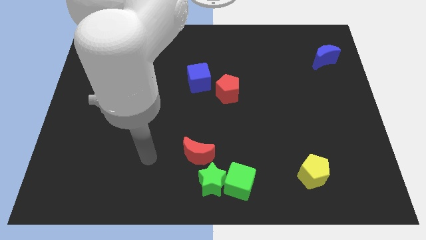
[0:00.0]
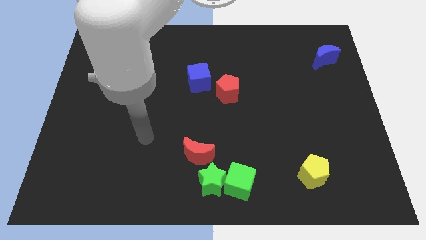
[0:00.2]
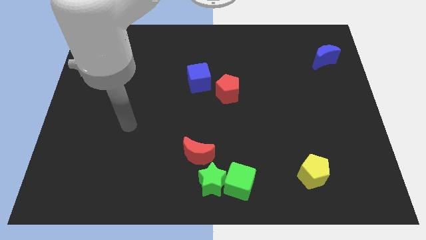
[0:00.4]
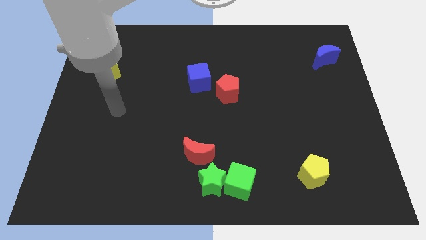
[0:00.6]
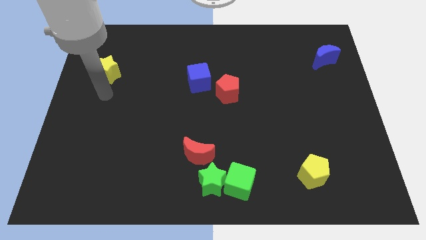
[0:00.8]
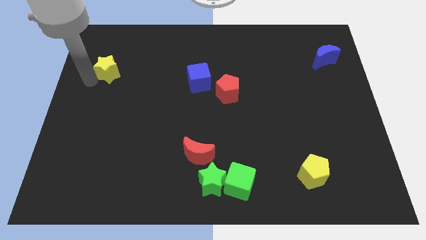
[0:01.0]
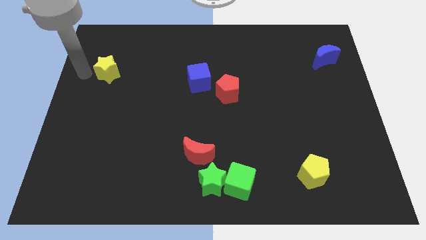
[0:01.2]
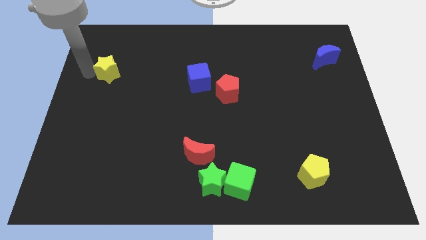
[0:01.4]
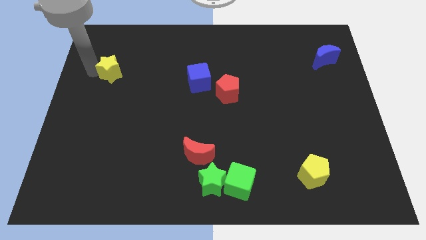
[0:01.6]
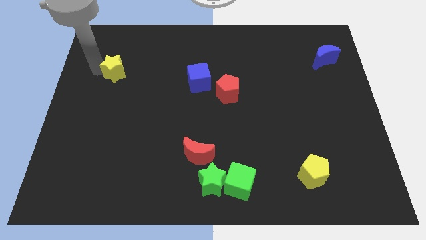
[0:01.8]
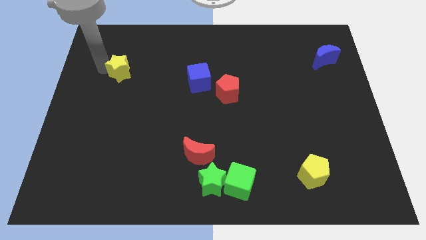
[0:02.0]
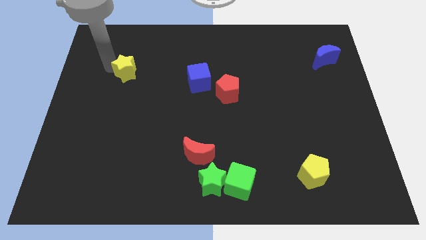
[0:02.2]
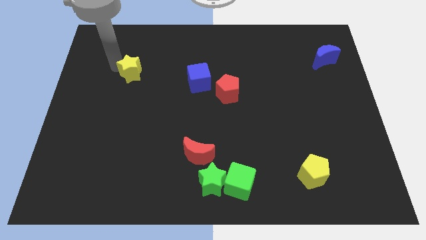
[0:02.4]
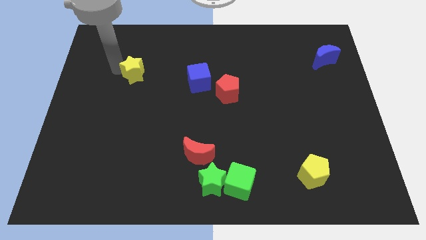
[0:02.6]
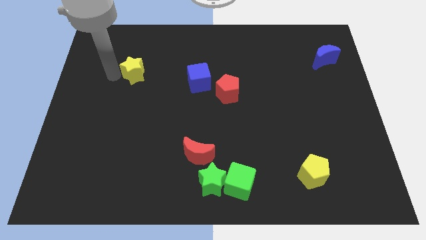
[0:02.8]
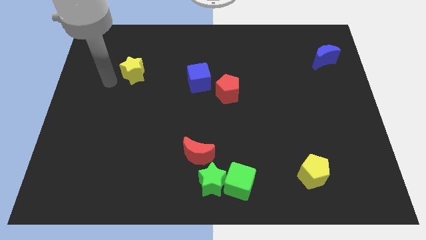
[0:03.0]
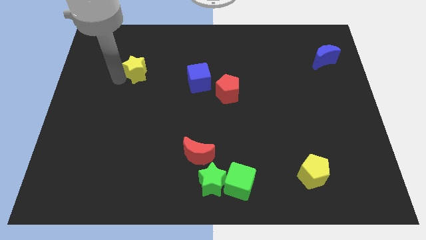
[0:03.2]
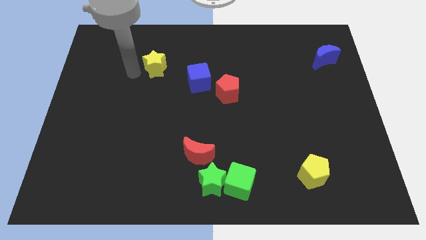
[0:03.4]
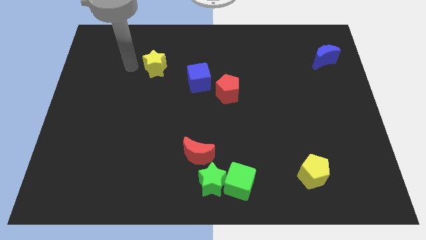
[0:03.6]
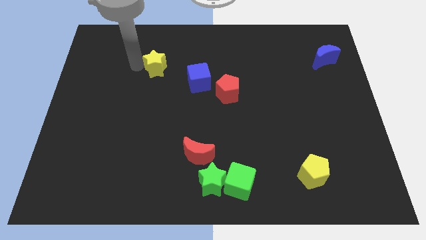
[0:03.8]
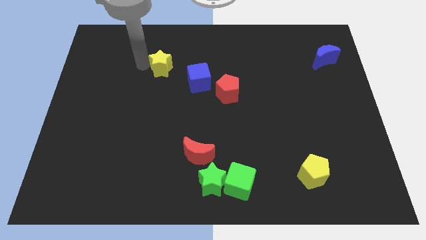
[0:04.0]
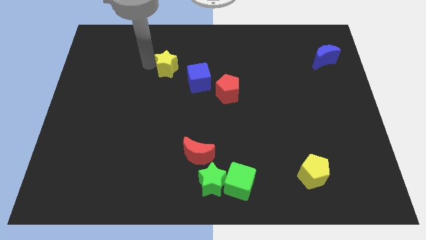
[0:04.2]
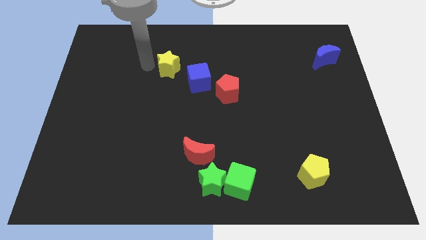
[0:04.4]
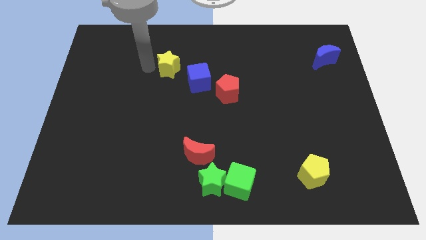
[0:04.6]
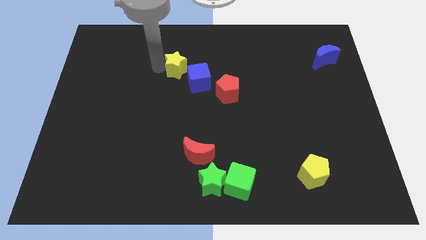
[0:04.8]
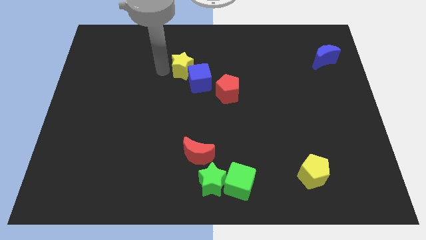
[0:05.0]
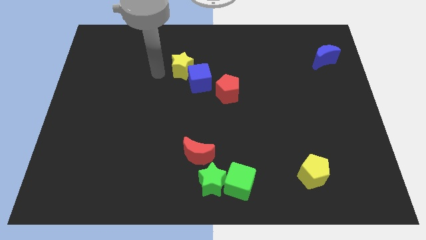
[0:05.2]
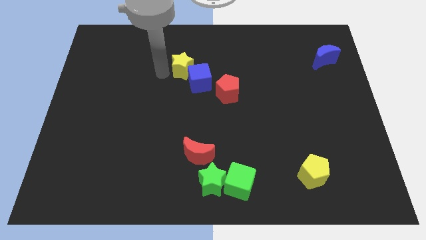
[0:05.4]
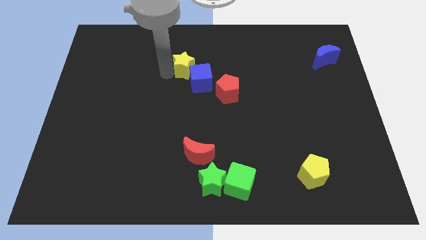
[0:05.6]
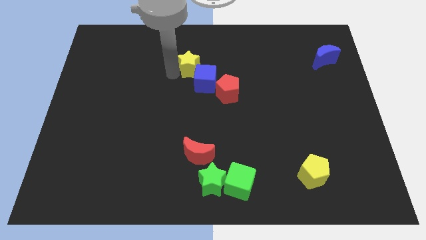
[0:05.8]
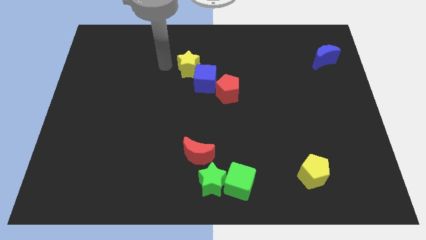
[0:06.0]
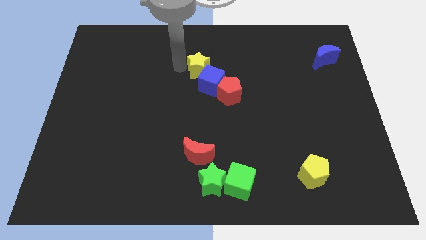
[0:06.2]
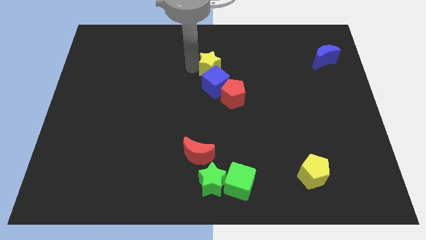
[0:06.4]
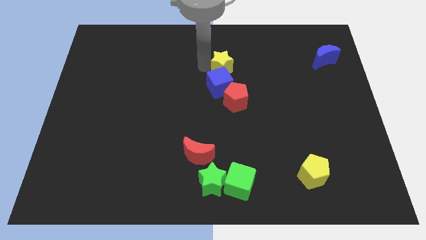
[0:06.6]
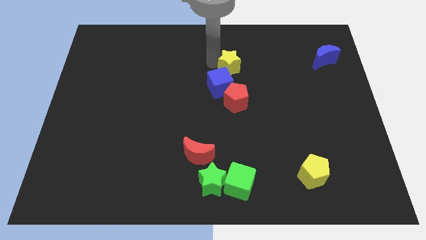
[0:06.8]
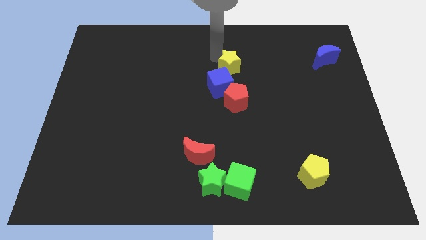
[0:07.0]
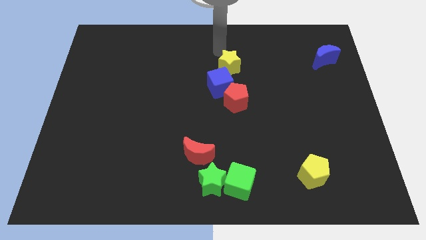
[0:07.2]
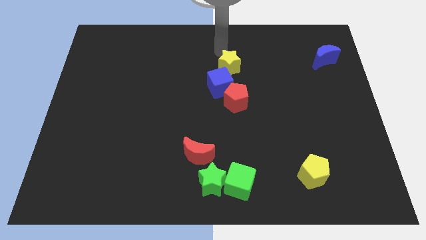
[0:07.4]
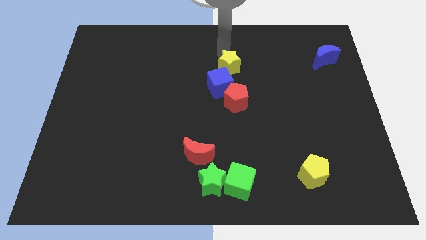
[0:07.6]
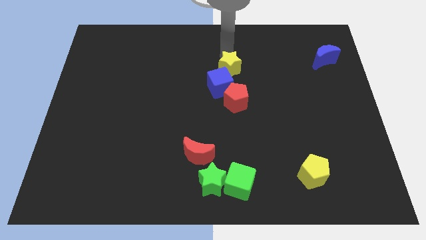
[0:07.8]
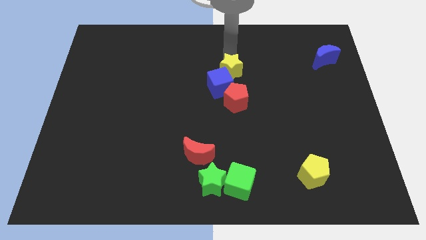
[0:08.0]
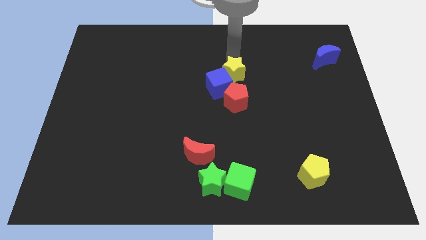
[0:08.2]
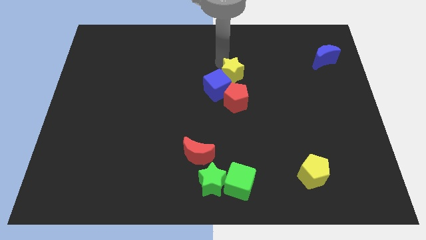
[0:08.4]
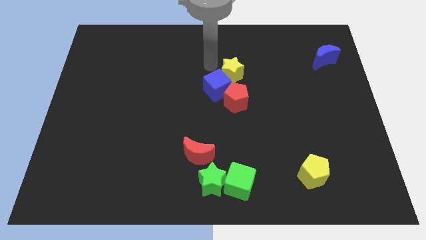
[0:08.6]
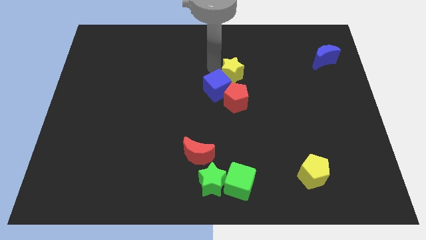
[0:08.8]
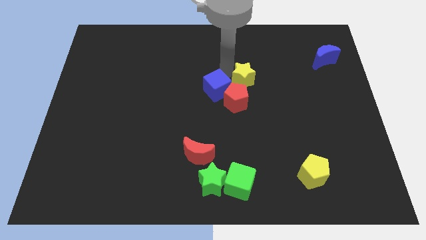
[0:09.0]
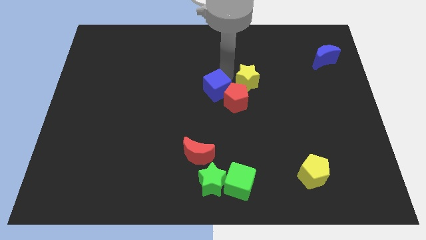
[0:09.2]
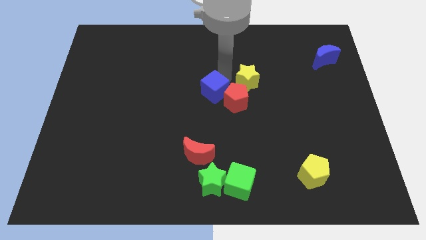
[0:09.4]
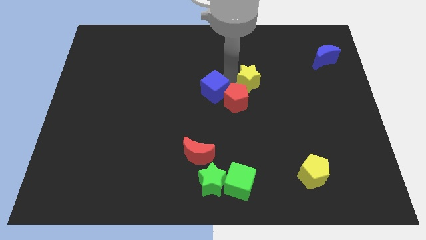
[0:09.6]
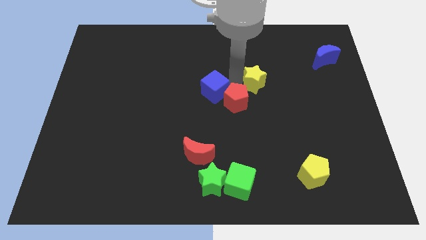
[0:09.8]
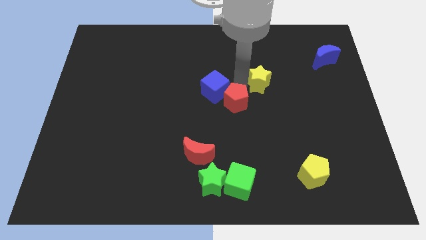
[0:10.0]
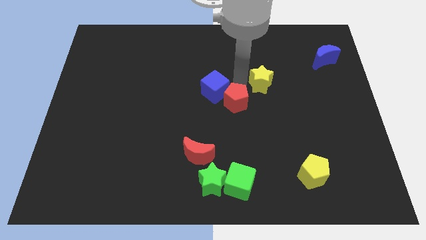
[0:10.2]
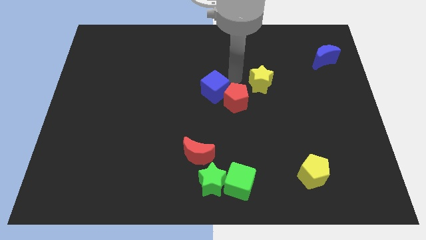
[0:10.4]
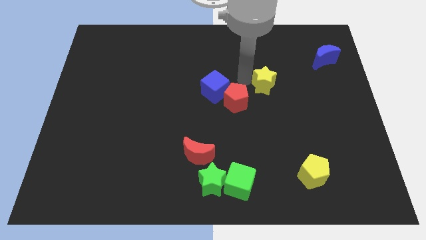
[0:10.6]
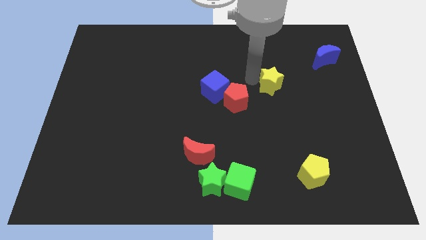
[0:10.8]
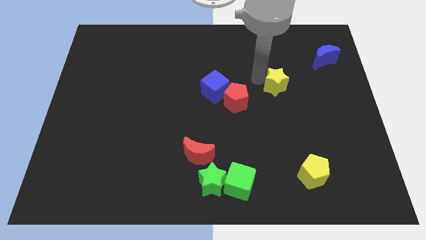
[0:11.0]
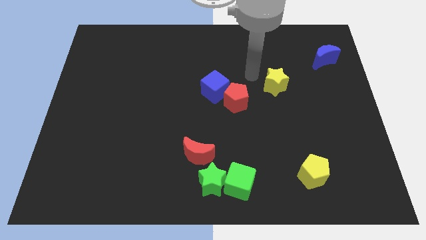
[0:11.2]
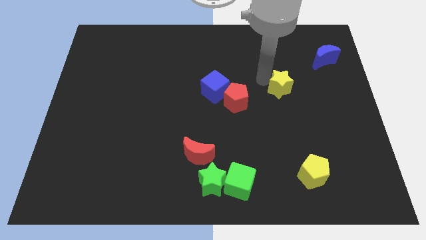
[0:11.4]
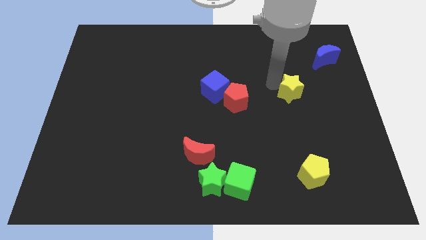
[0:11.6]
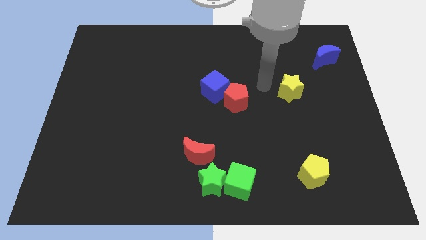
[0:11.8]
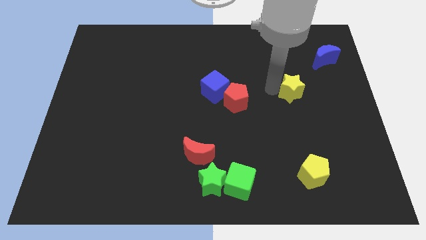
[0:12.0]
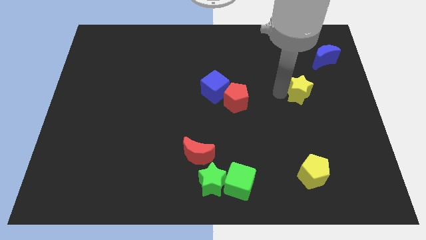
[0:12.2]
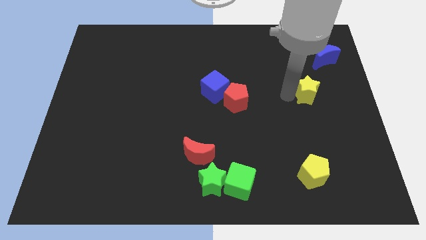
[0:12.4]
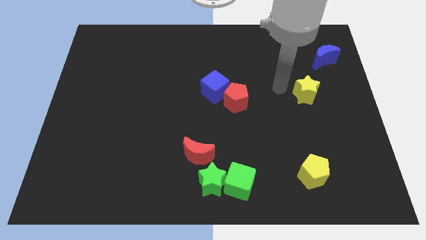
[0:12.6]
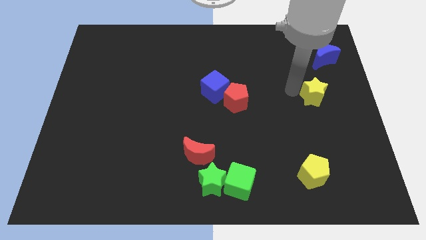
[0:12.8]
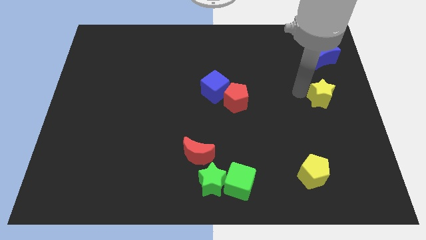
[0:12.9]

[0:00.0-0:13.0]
move the yellow star to the right side

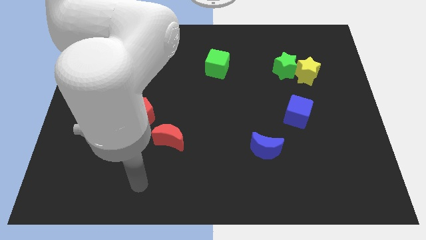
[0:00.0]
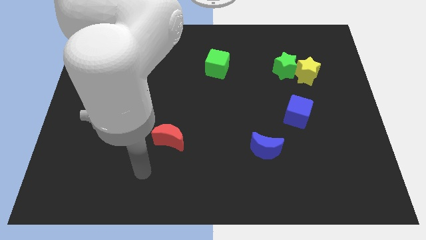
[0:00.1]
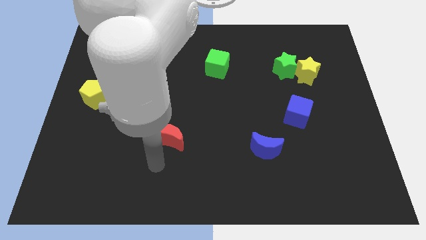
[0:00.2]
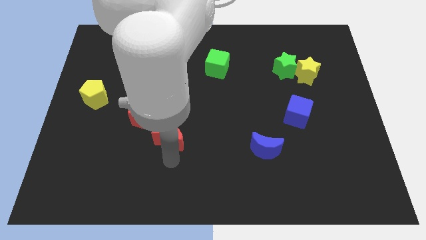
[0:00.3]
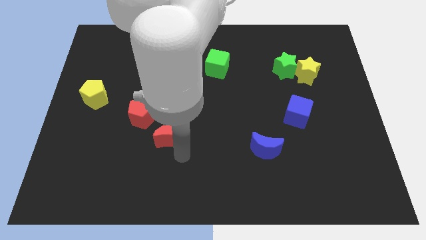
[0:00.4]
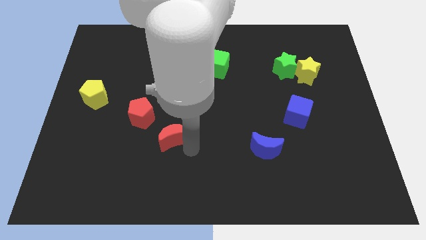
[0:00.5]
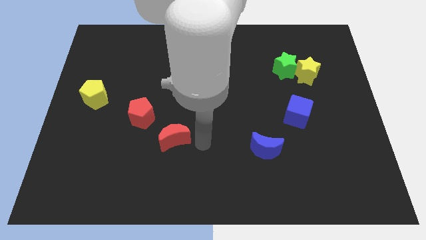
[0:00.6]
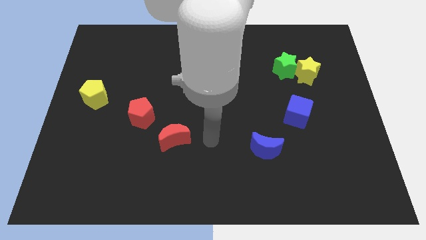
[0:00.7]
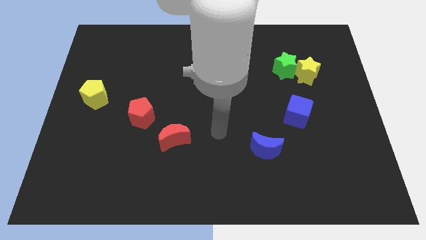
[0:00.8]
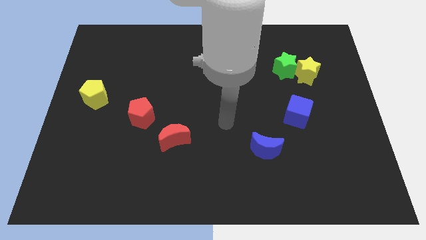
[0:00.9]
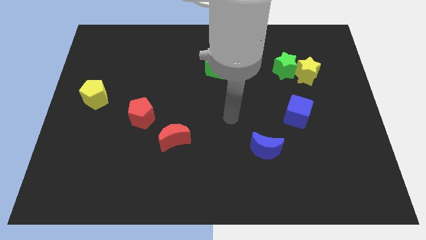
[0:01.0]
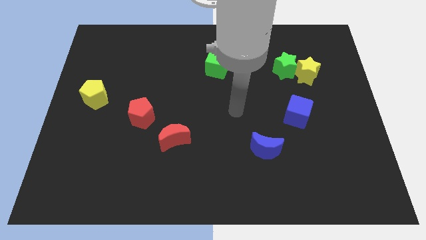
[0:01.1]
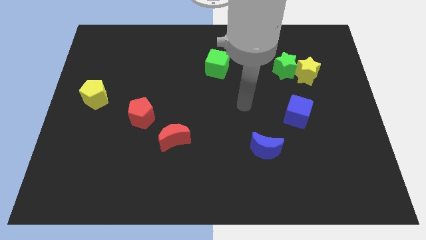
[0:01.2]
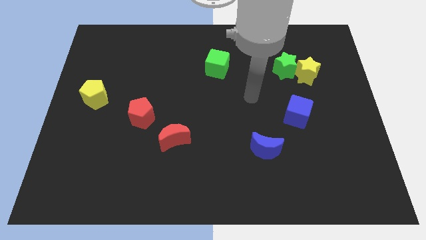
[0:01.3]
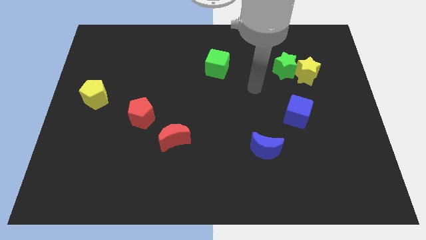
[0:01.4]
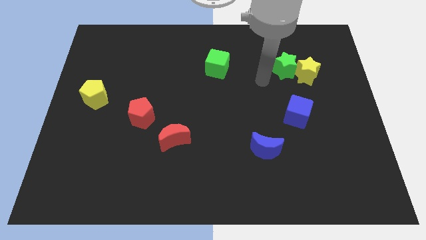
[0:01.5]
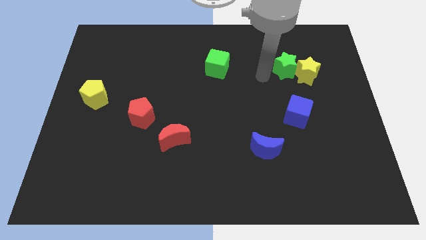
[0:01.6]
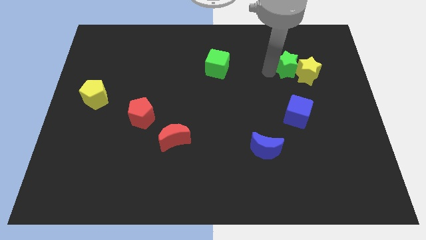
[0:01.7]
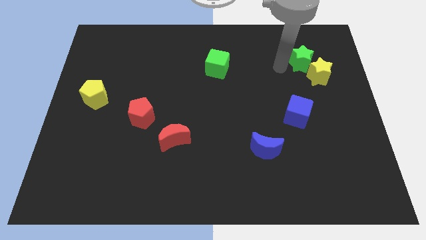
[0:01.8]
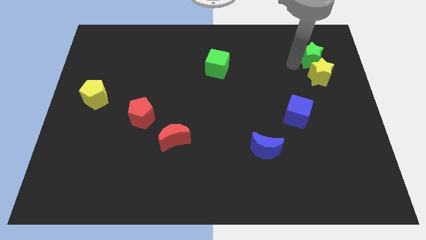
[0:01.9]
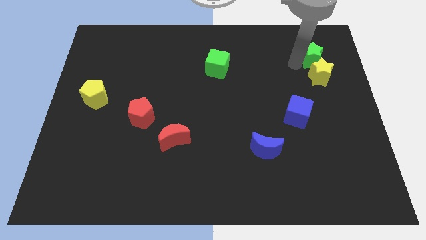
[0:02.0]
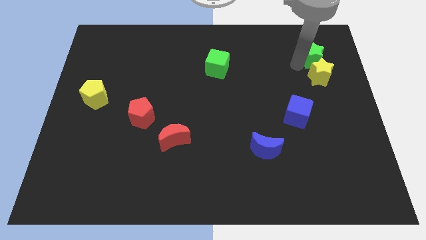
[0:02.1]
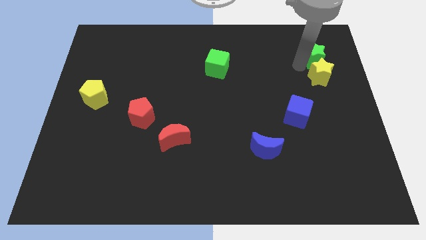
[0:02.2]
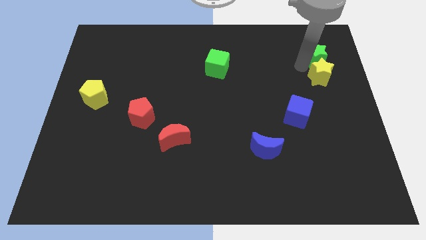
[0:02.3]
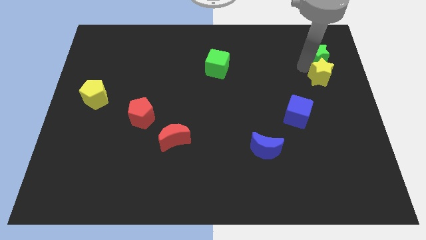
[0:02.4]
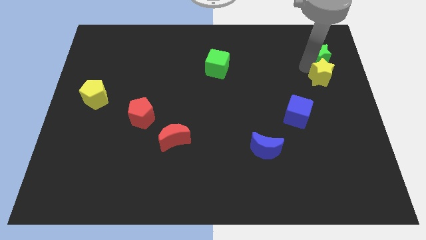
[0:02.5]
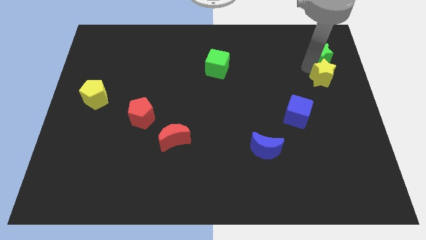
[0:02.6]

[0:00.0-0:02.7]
put the yellow star to the right side
